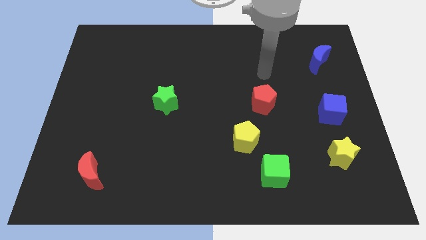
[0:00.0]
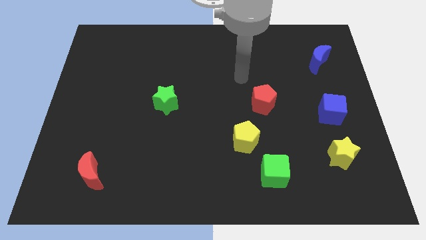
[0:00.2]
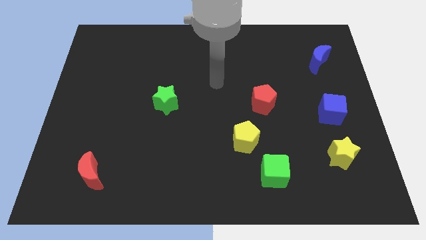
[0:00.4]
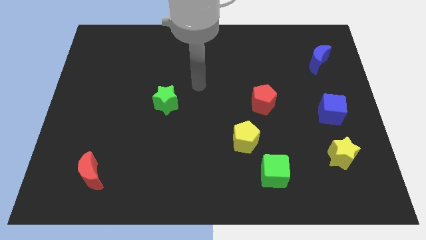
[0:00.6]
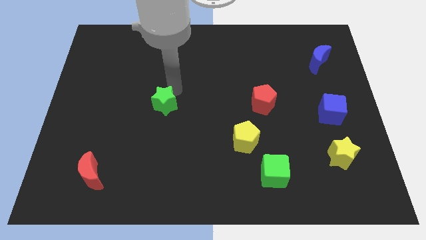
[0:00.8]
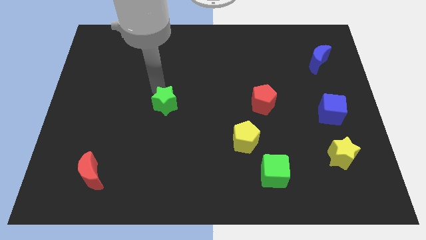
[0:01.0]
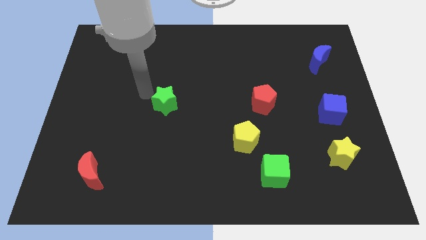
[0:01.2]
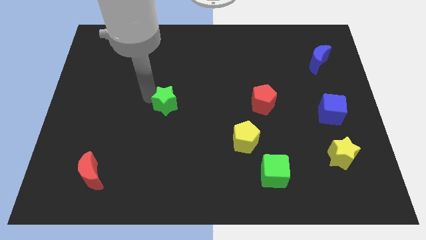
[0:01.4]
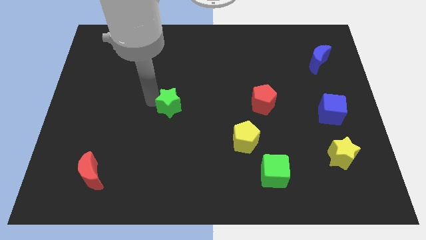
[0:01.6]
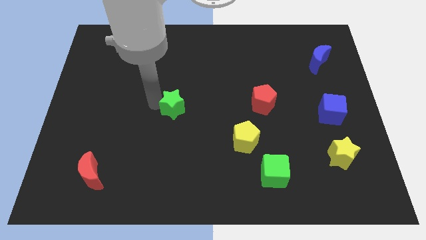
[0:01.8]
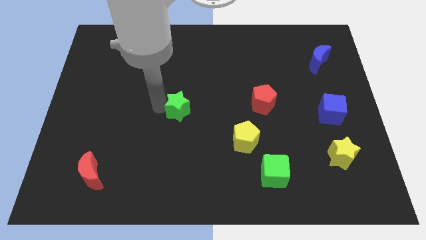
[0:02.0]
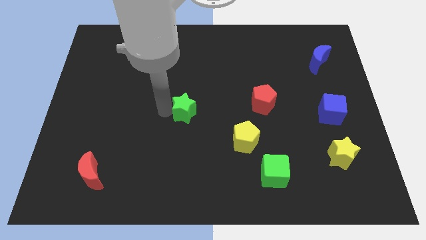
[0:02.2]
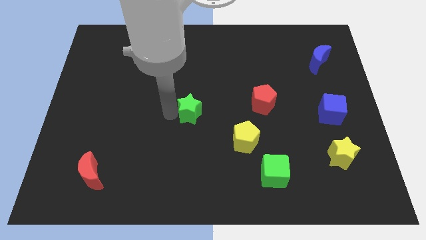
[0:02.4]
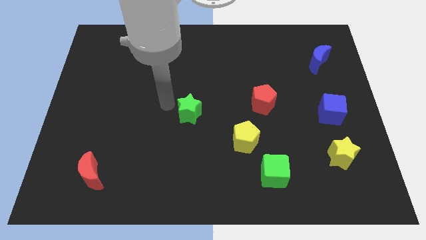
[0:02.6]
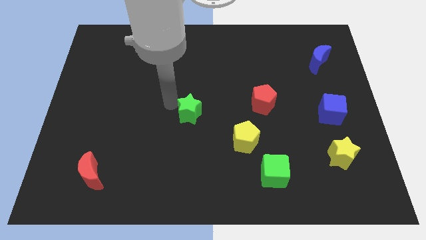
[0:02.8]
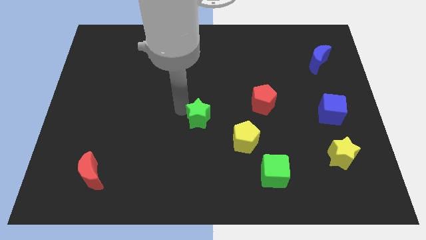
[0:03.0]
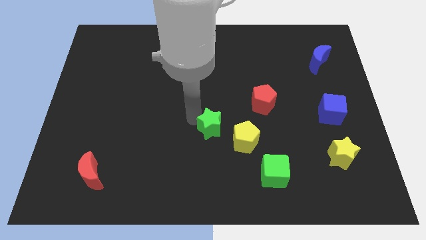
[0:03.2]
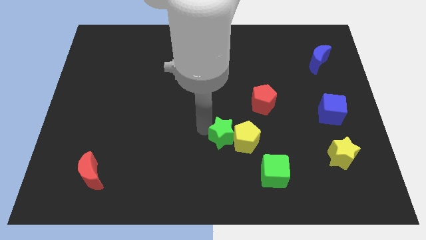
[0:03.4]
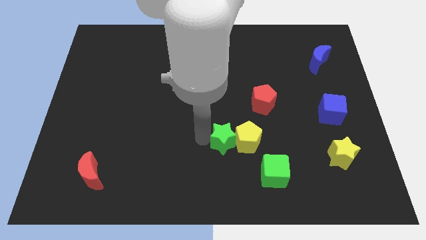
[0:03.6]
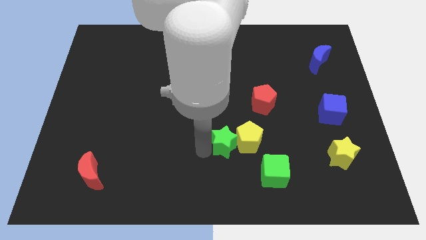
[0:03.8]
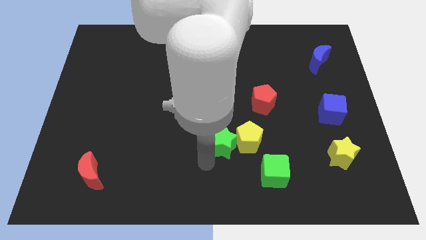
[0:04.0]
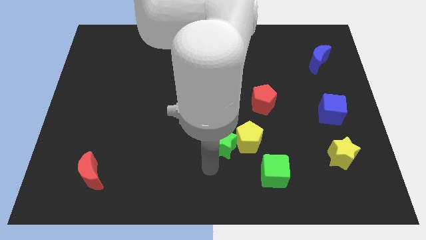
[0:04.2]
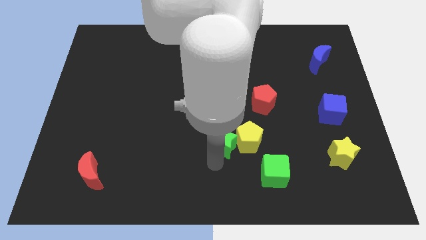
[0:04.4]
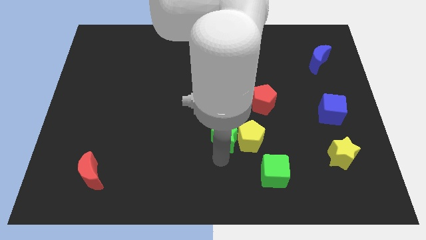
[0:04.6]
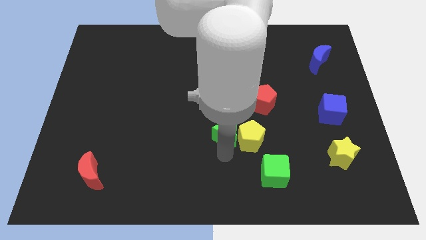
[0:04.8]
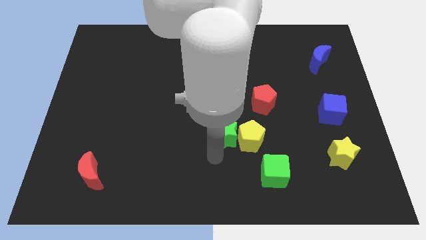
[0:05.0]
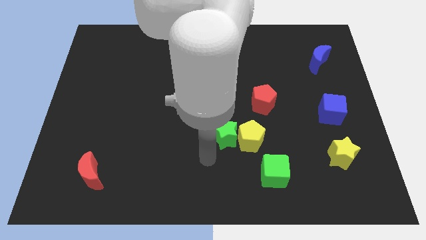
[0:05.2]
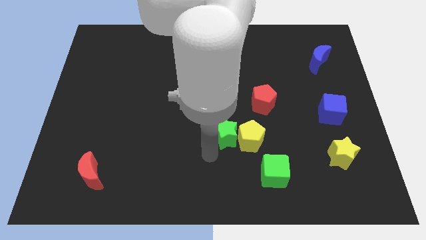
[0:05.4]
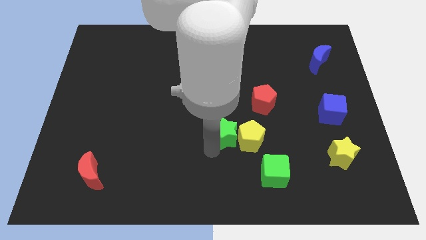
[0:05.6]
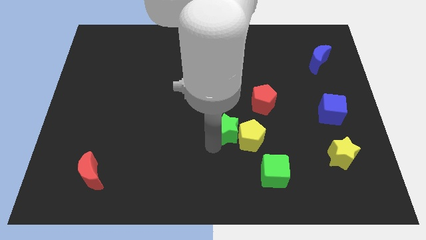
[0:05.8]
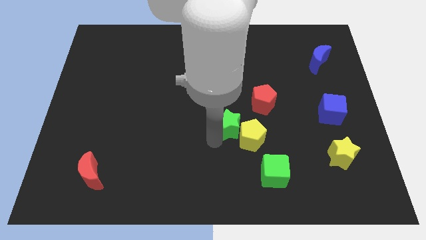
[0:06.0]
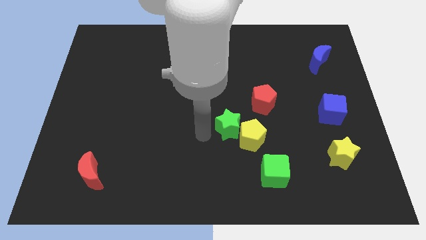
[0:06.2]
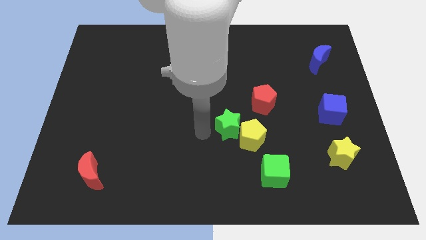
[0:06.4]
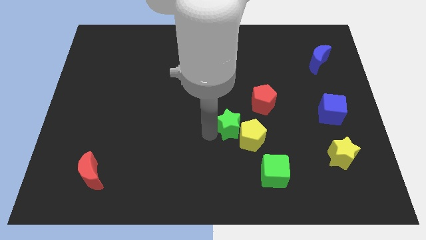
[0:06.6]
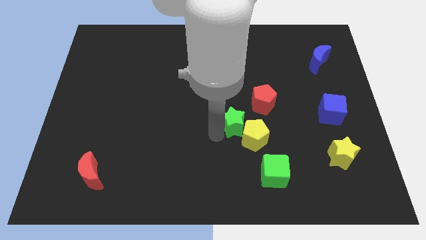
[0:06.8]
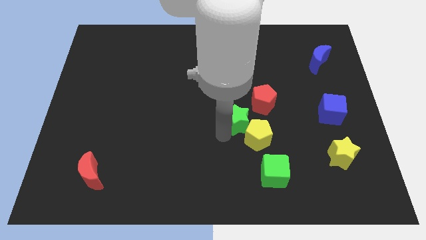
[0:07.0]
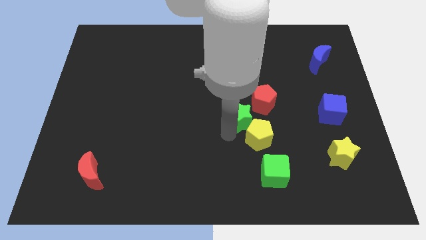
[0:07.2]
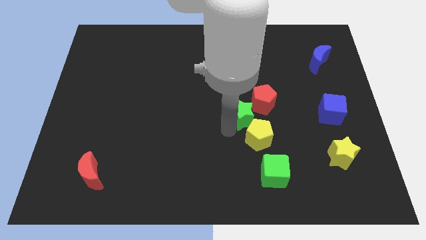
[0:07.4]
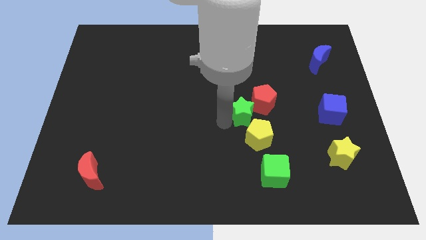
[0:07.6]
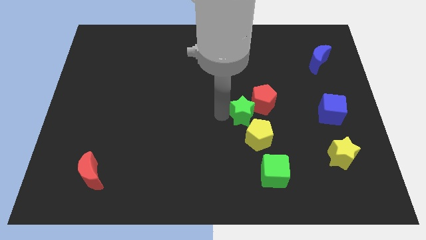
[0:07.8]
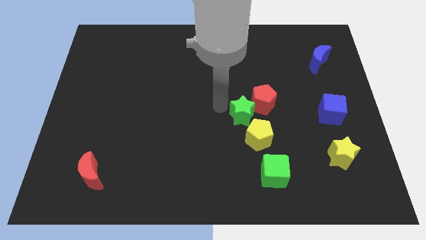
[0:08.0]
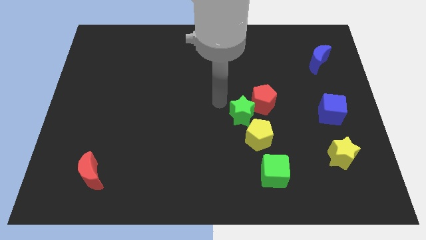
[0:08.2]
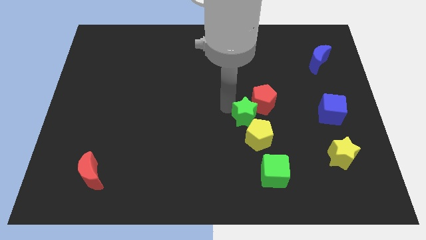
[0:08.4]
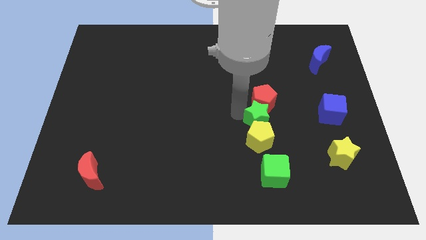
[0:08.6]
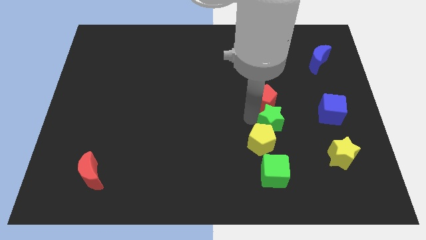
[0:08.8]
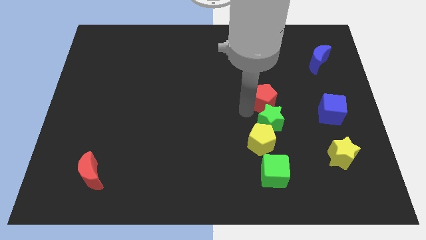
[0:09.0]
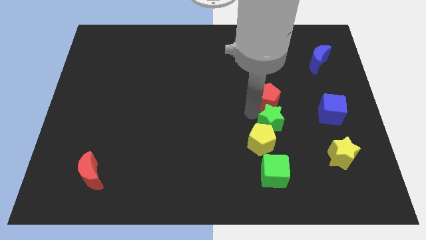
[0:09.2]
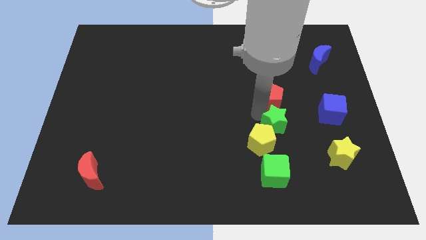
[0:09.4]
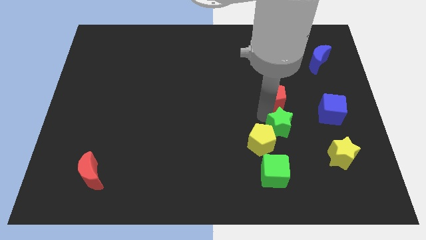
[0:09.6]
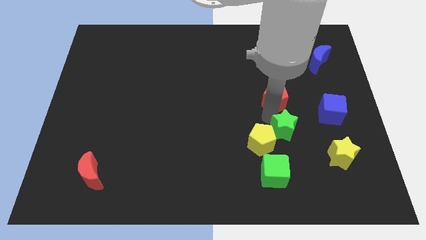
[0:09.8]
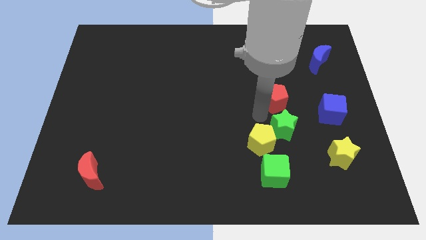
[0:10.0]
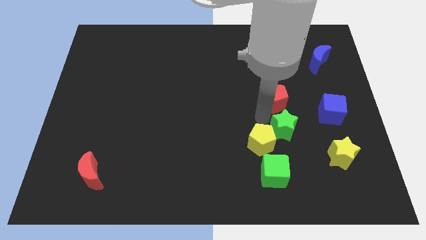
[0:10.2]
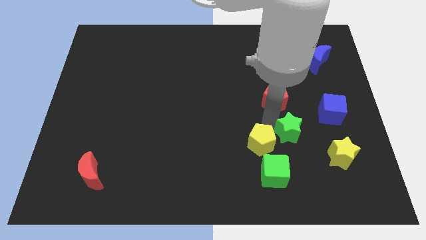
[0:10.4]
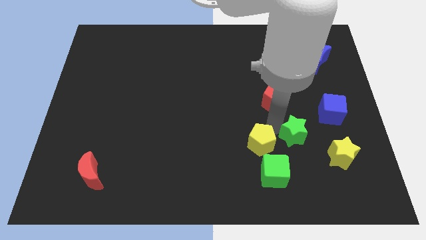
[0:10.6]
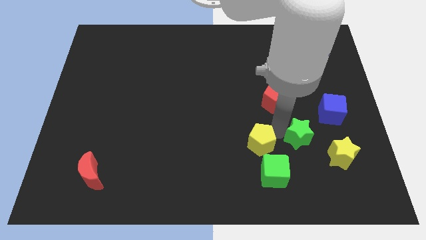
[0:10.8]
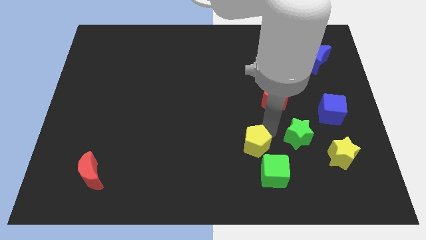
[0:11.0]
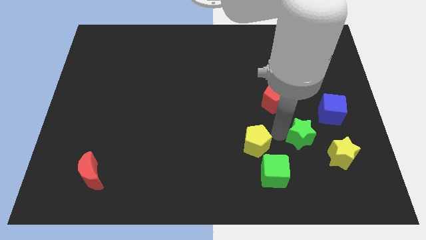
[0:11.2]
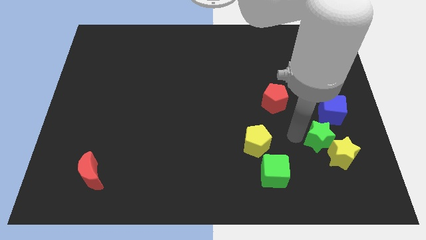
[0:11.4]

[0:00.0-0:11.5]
push the green star close to the yellow star
